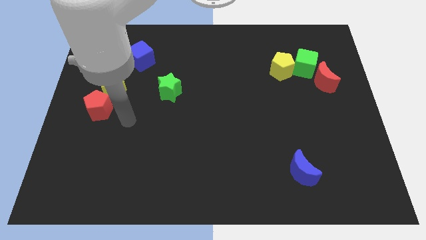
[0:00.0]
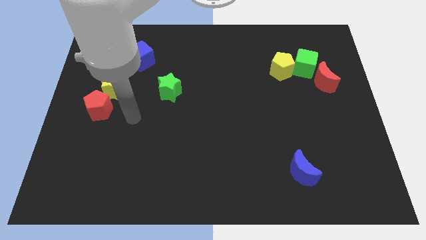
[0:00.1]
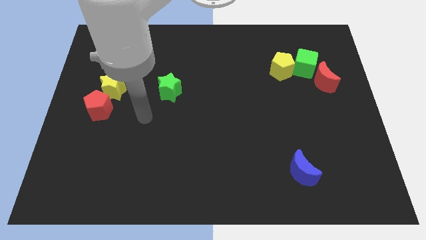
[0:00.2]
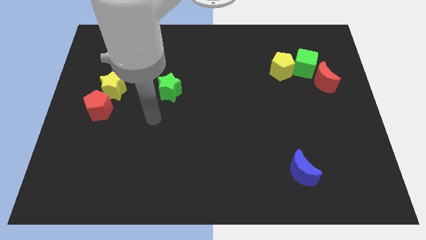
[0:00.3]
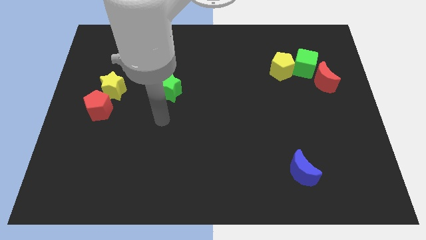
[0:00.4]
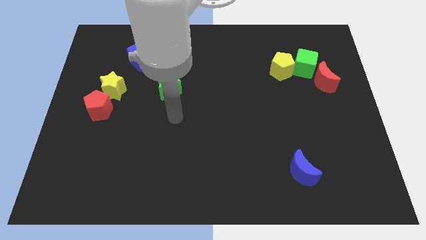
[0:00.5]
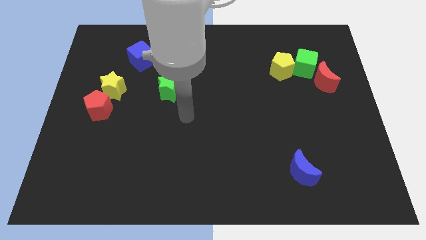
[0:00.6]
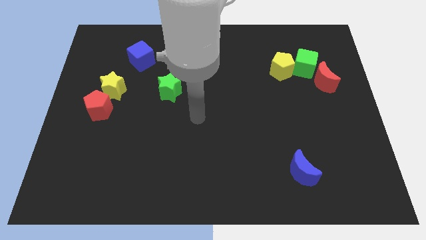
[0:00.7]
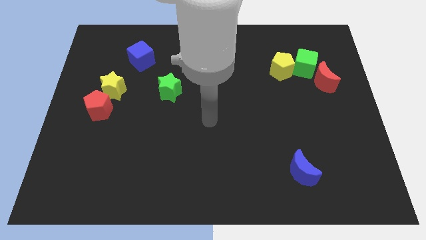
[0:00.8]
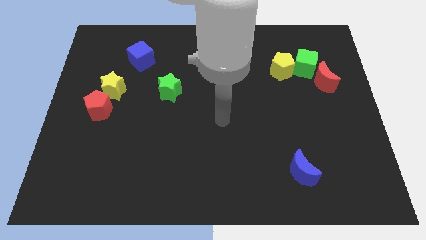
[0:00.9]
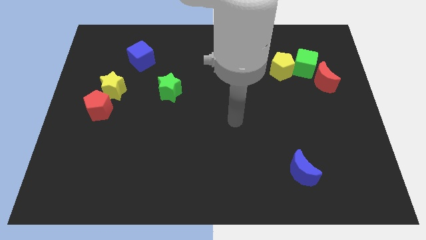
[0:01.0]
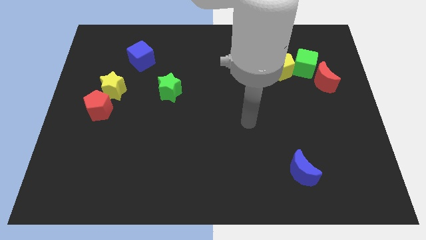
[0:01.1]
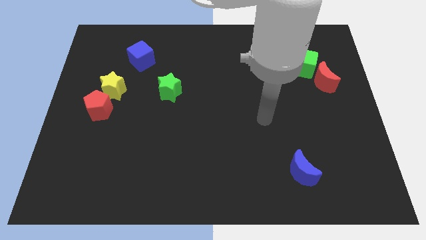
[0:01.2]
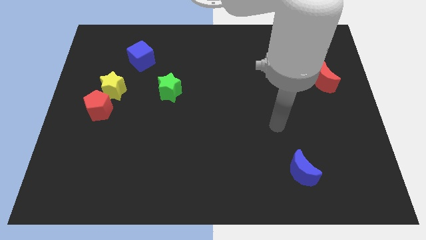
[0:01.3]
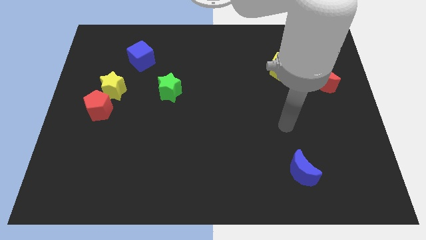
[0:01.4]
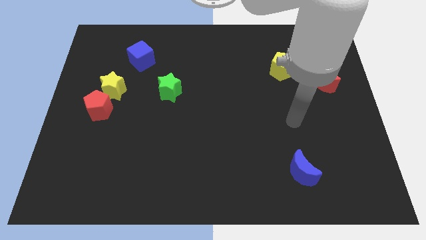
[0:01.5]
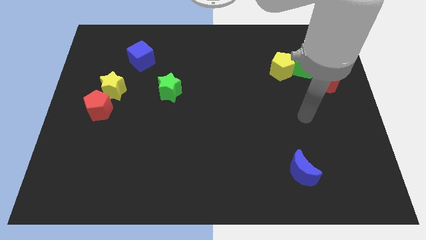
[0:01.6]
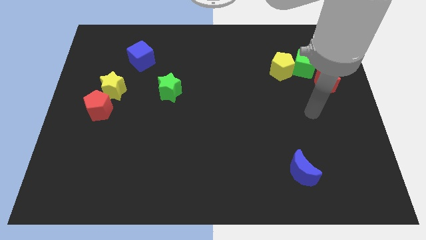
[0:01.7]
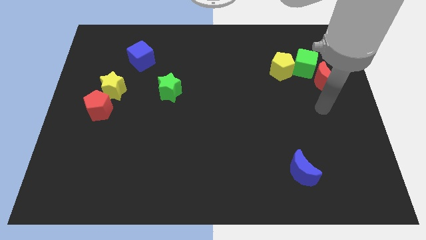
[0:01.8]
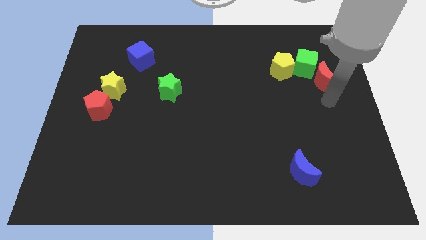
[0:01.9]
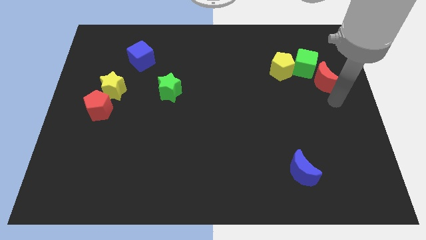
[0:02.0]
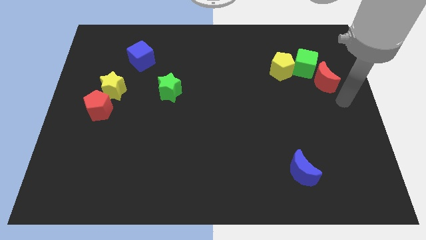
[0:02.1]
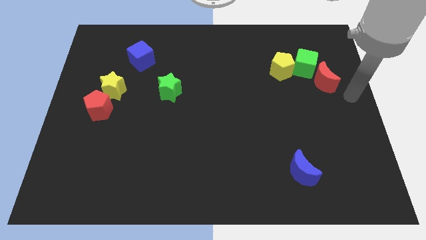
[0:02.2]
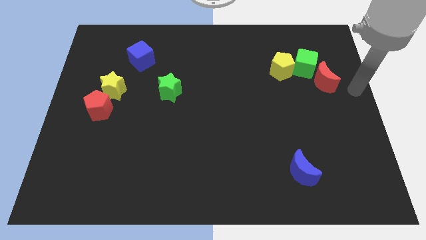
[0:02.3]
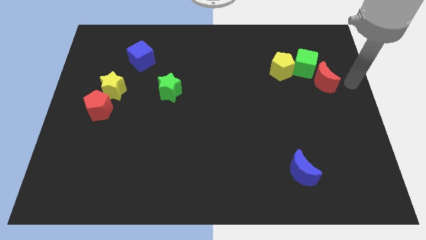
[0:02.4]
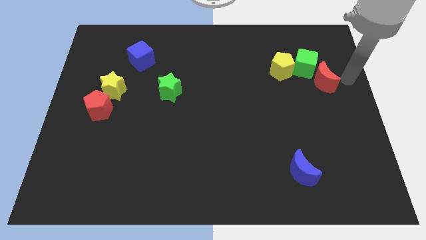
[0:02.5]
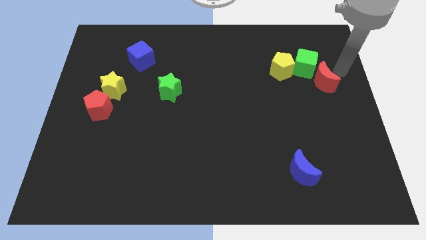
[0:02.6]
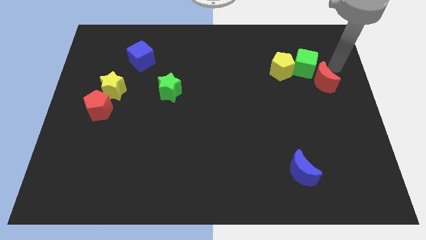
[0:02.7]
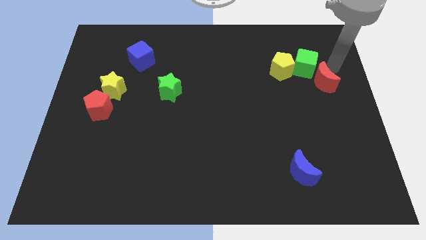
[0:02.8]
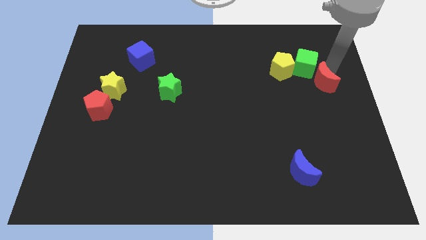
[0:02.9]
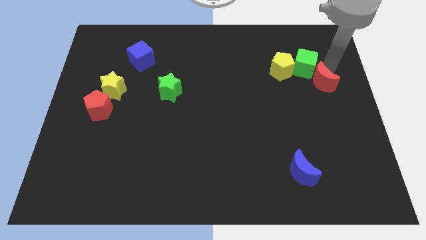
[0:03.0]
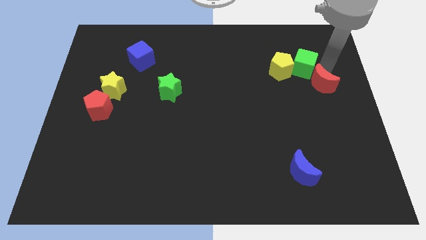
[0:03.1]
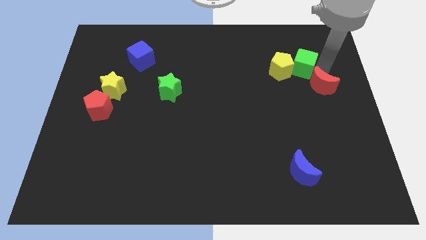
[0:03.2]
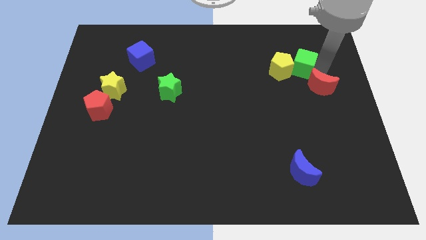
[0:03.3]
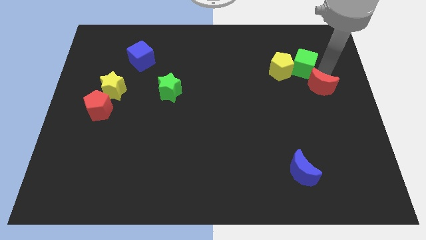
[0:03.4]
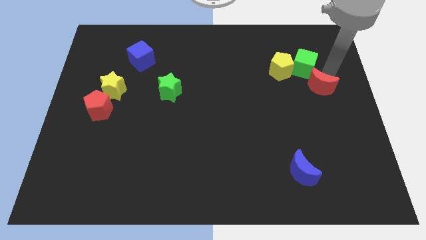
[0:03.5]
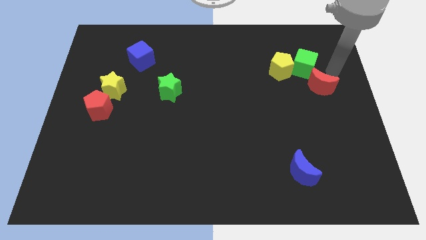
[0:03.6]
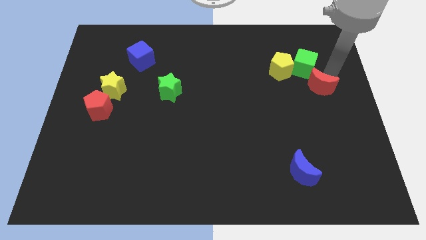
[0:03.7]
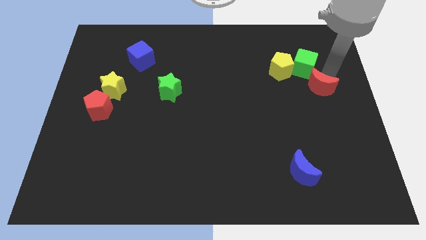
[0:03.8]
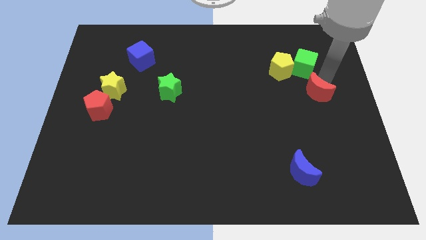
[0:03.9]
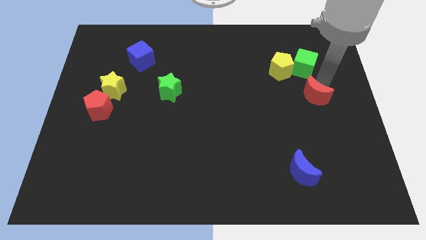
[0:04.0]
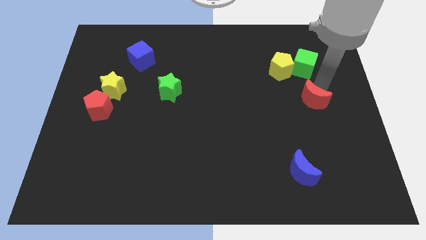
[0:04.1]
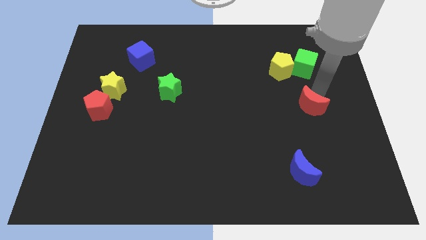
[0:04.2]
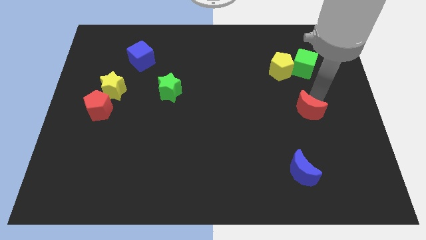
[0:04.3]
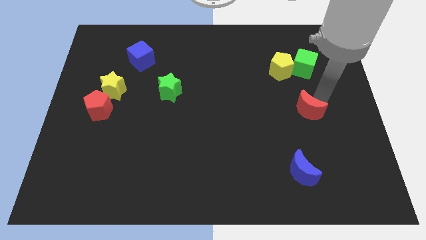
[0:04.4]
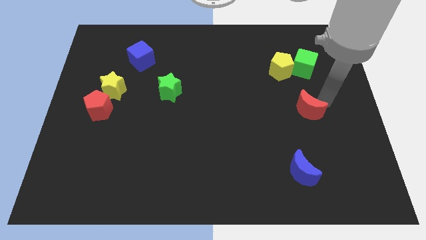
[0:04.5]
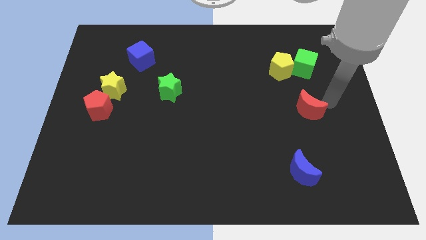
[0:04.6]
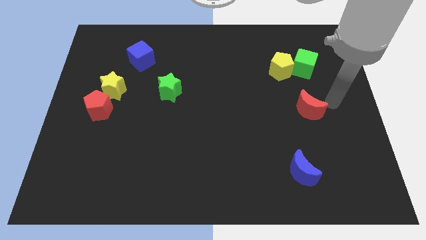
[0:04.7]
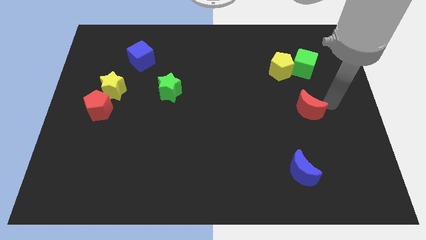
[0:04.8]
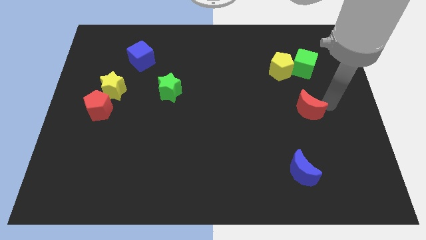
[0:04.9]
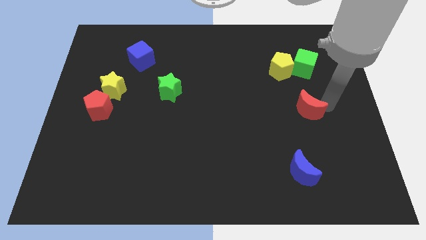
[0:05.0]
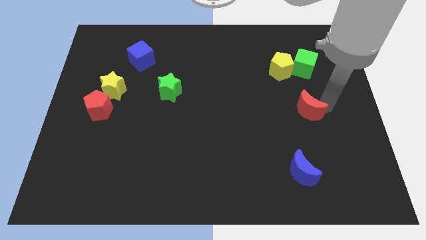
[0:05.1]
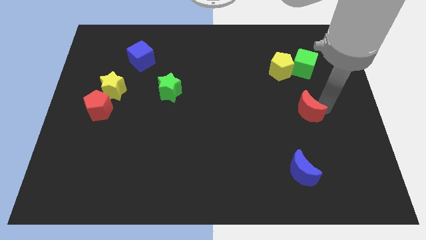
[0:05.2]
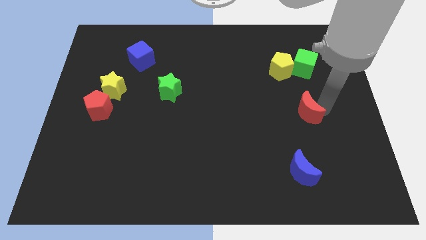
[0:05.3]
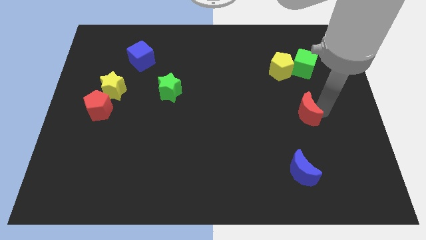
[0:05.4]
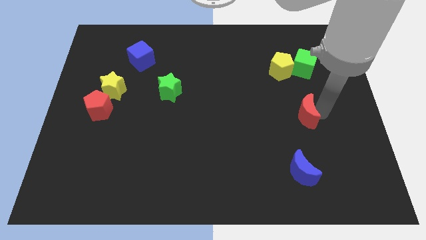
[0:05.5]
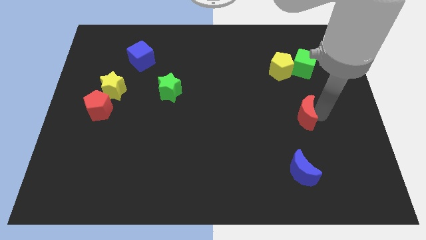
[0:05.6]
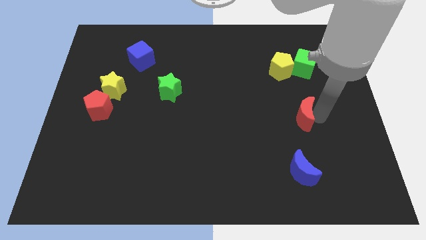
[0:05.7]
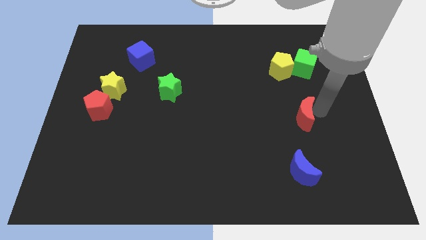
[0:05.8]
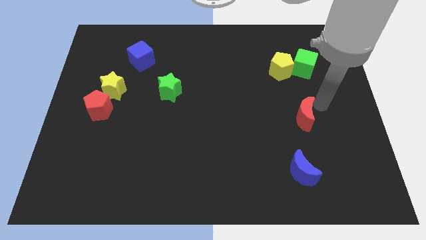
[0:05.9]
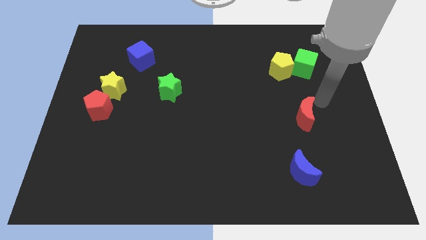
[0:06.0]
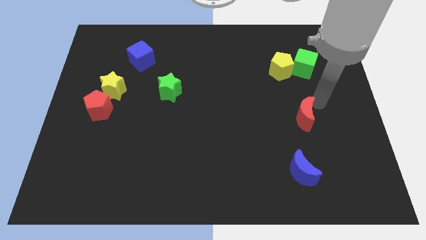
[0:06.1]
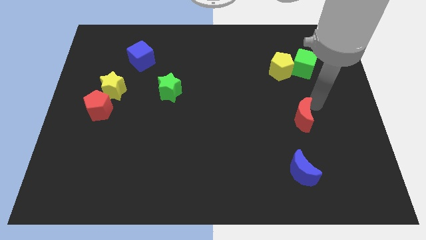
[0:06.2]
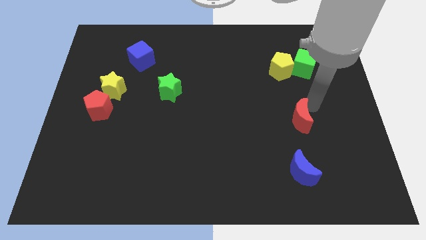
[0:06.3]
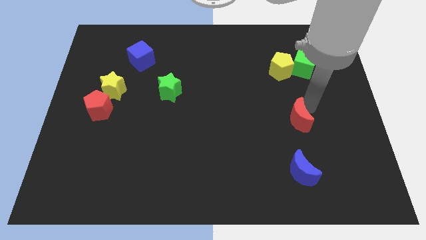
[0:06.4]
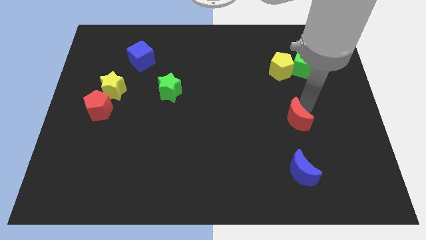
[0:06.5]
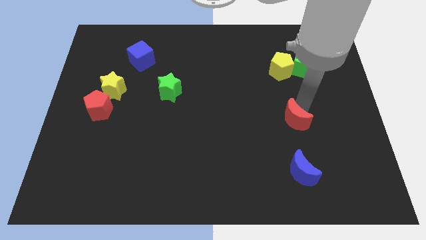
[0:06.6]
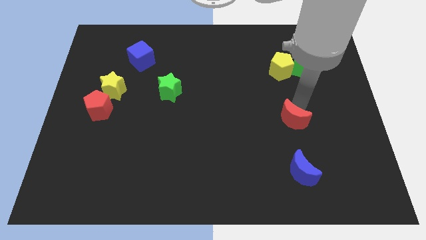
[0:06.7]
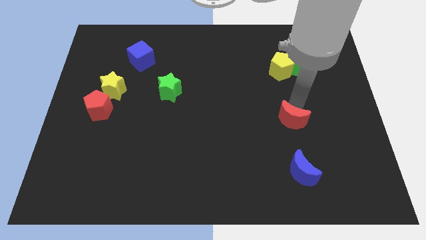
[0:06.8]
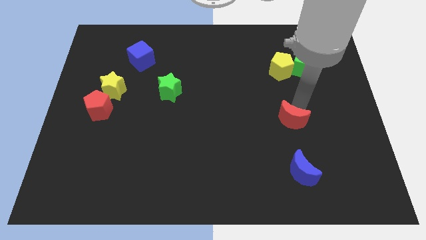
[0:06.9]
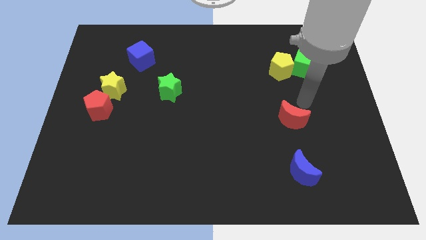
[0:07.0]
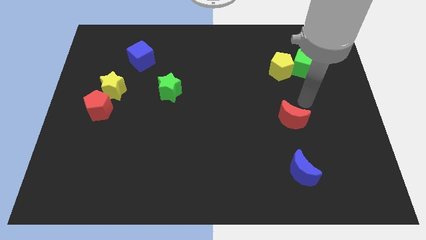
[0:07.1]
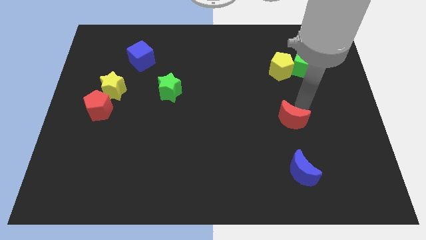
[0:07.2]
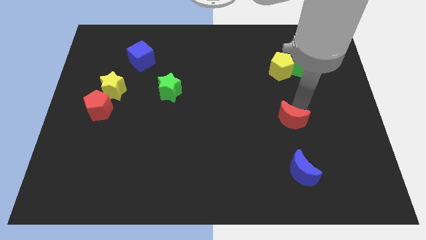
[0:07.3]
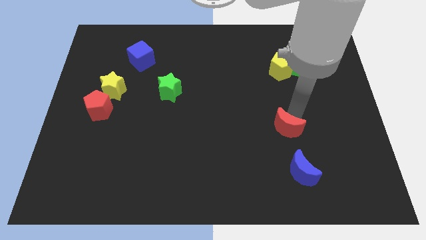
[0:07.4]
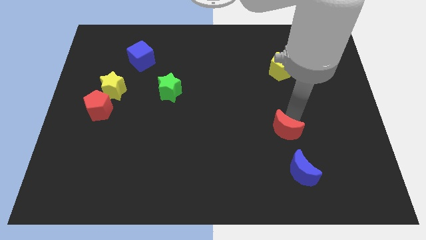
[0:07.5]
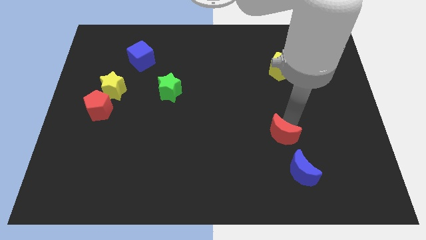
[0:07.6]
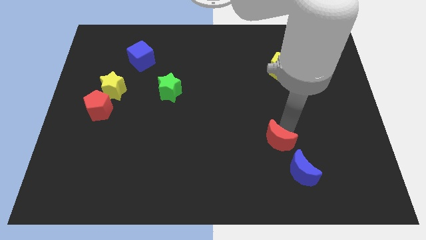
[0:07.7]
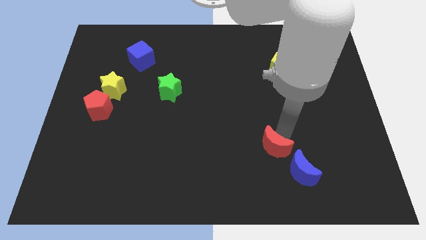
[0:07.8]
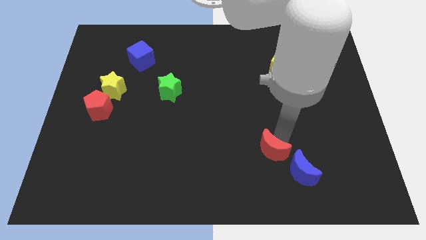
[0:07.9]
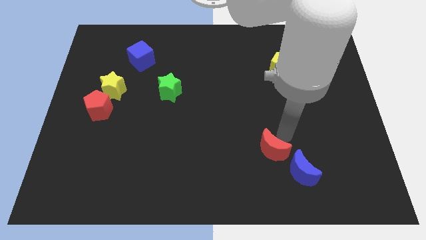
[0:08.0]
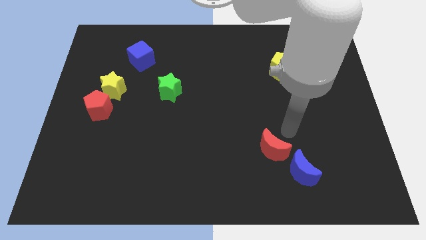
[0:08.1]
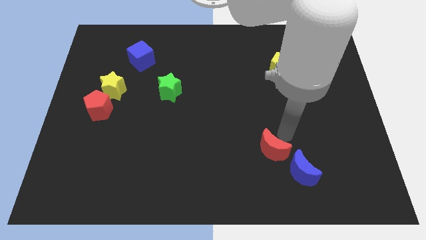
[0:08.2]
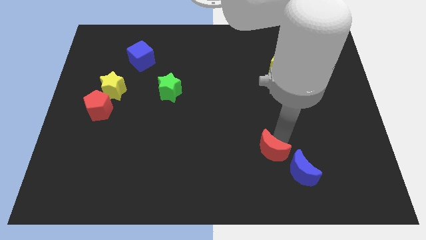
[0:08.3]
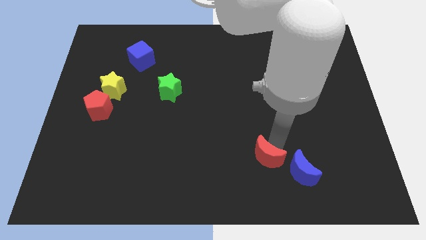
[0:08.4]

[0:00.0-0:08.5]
move the red moon to the left of the blue moon
